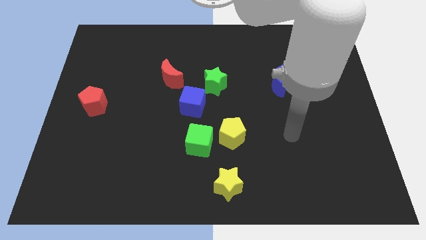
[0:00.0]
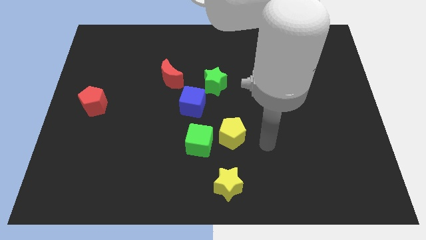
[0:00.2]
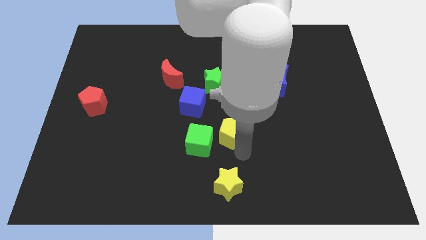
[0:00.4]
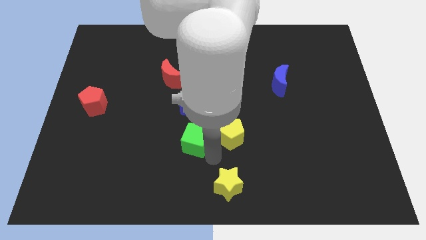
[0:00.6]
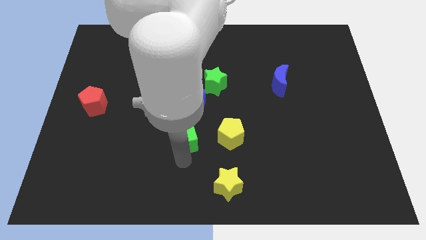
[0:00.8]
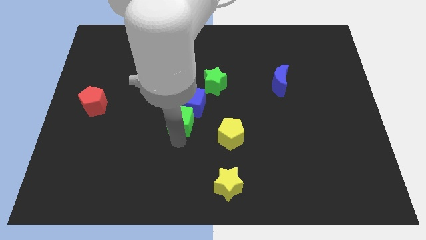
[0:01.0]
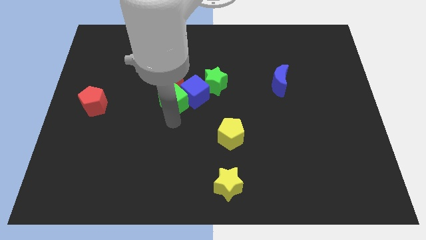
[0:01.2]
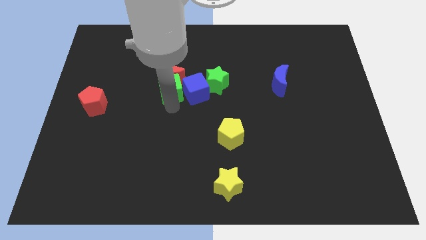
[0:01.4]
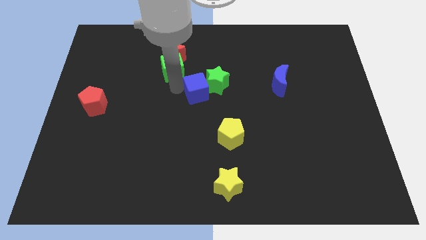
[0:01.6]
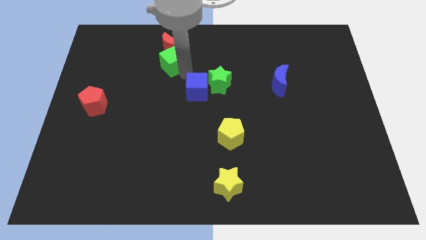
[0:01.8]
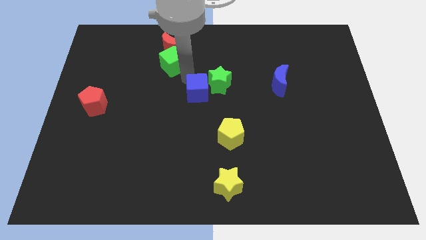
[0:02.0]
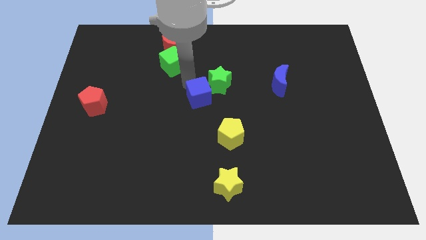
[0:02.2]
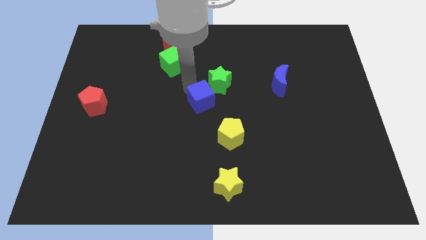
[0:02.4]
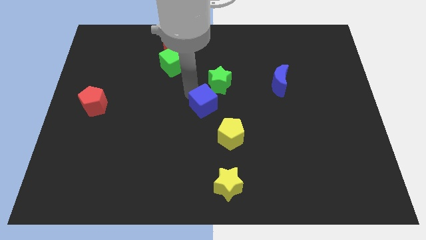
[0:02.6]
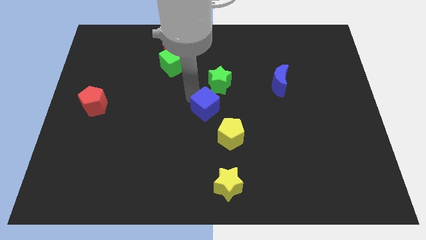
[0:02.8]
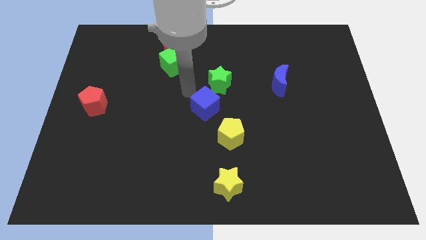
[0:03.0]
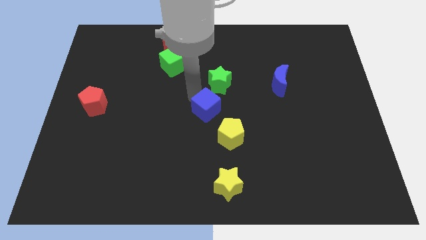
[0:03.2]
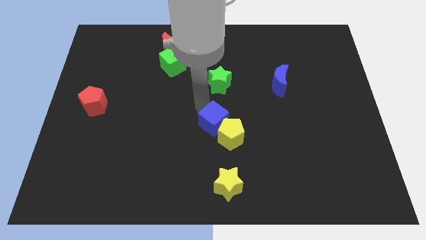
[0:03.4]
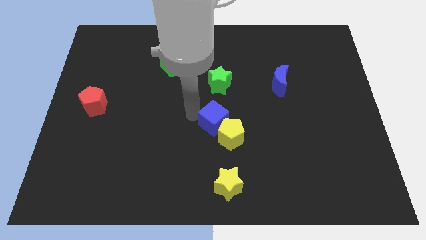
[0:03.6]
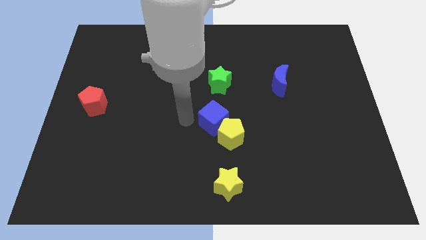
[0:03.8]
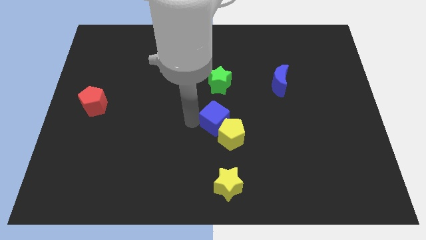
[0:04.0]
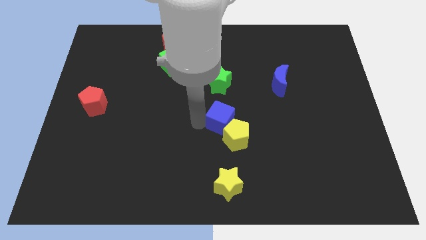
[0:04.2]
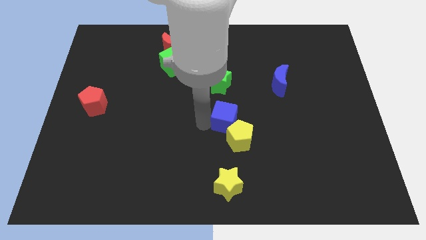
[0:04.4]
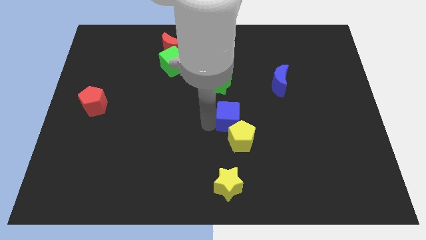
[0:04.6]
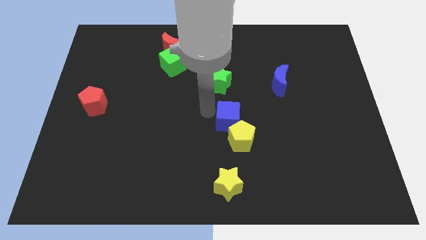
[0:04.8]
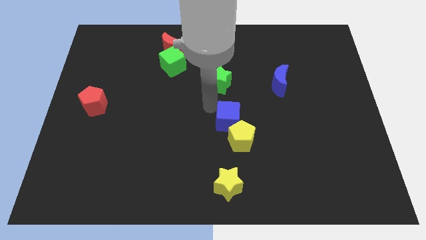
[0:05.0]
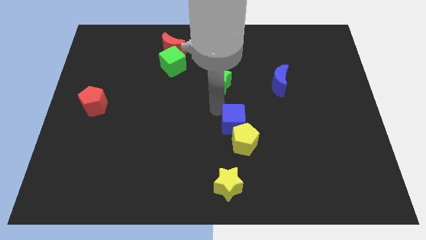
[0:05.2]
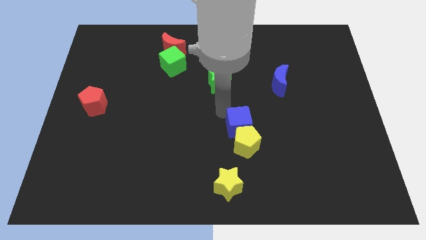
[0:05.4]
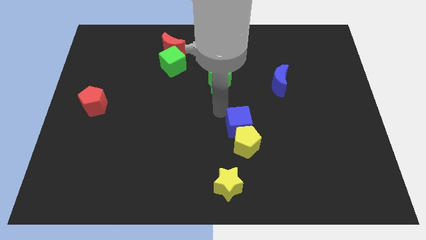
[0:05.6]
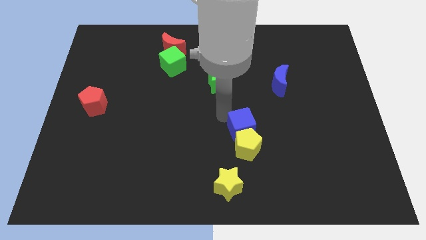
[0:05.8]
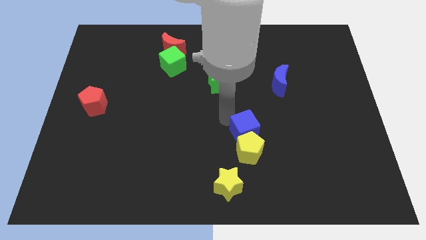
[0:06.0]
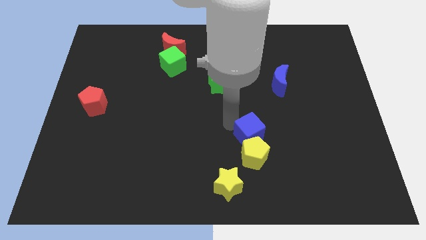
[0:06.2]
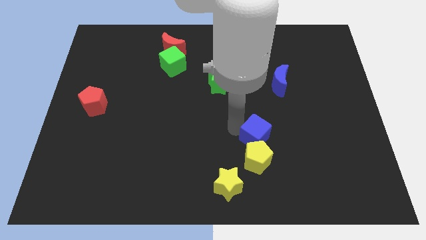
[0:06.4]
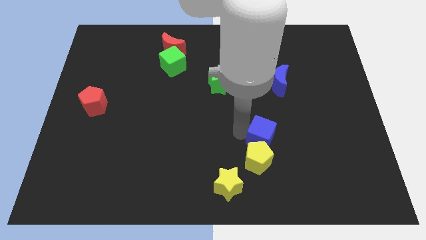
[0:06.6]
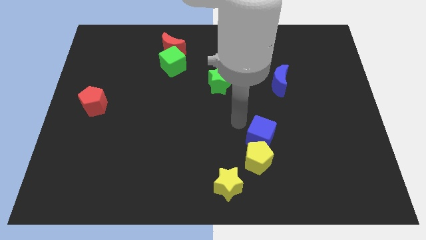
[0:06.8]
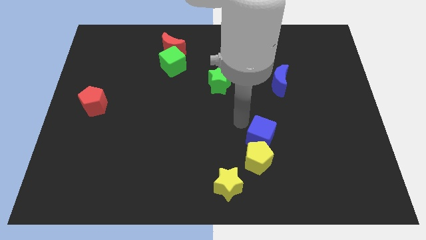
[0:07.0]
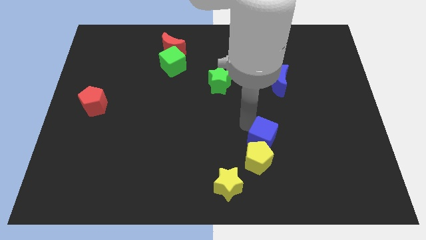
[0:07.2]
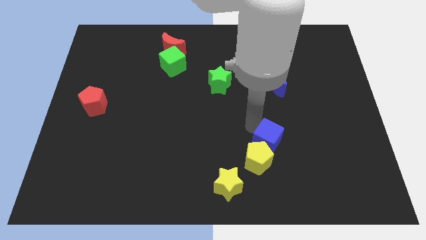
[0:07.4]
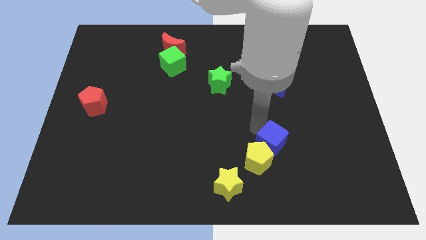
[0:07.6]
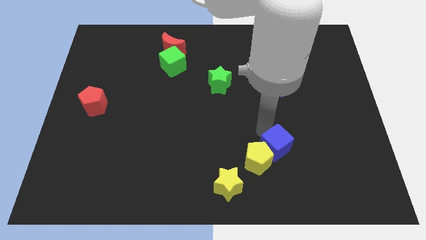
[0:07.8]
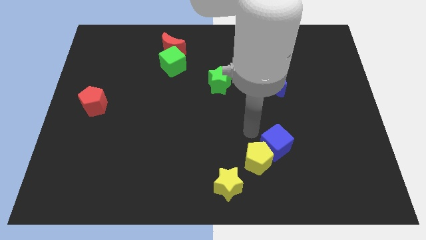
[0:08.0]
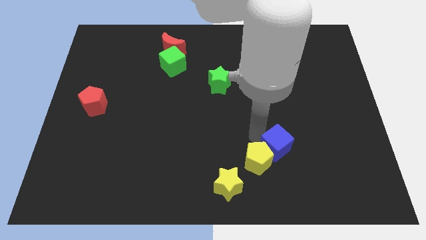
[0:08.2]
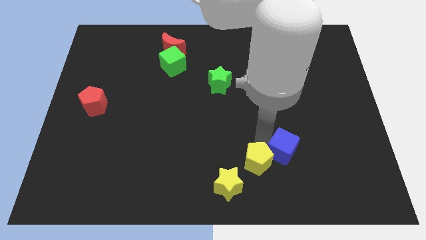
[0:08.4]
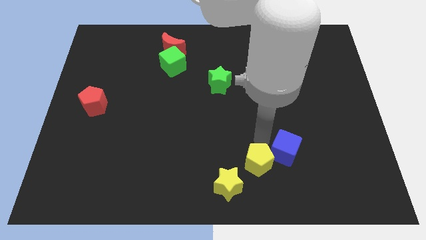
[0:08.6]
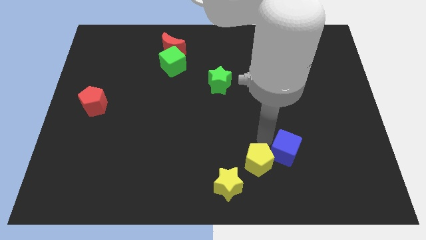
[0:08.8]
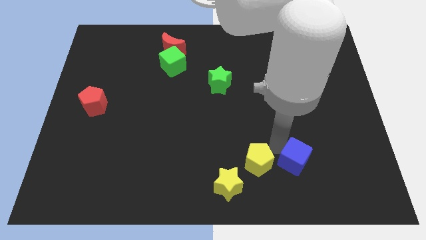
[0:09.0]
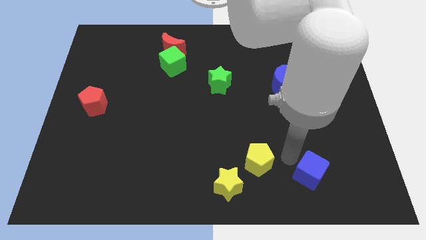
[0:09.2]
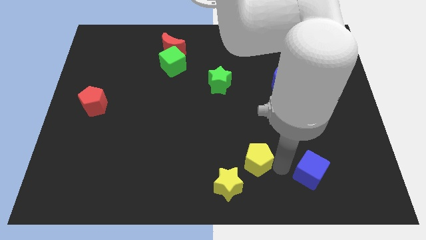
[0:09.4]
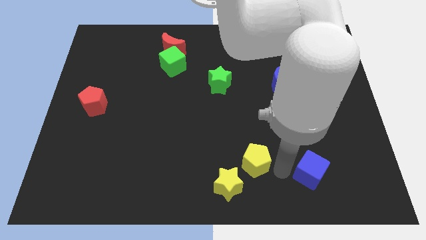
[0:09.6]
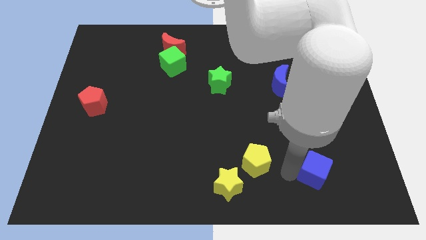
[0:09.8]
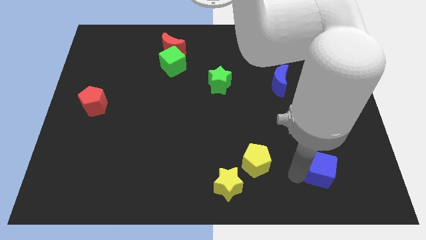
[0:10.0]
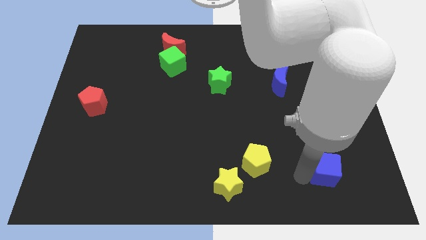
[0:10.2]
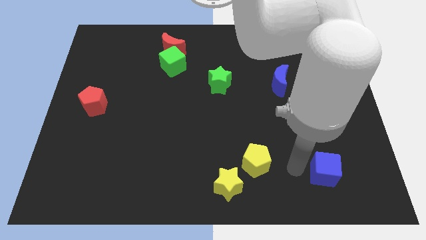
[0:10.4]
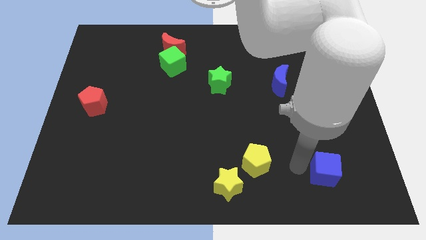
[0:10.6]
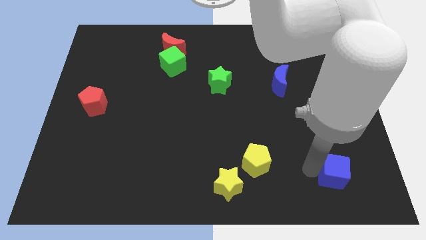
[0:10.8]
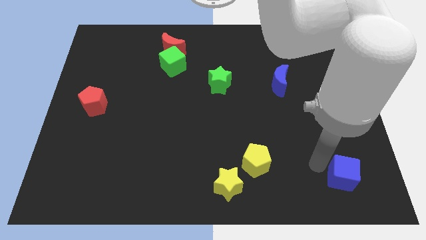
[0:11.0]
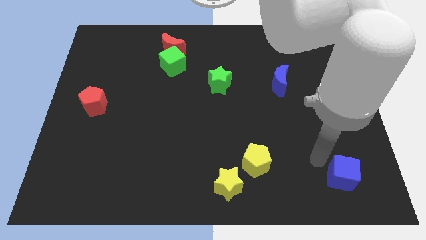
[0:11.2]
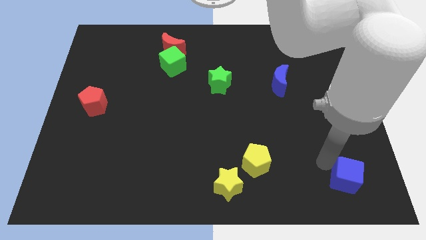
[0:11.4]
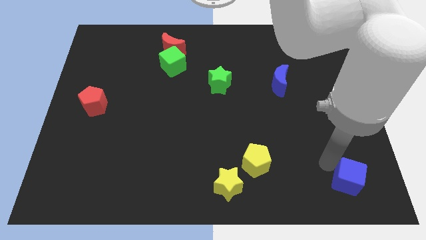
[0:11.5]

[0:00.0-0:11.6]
move the blue cube to the bottom right corner

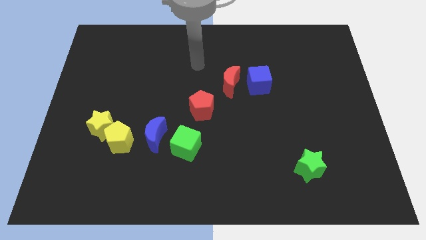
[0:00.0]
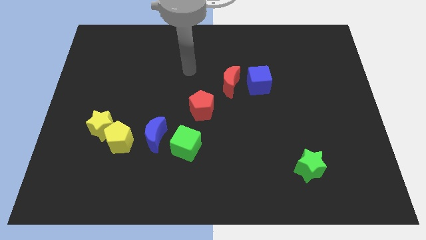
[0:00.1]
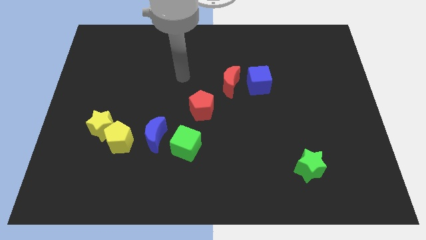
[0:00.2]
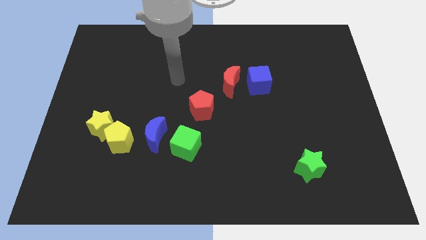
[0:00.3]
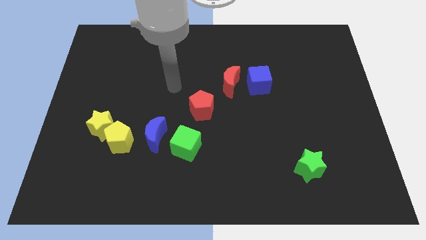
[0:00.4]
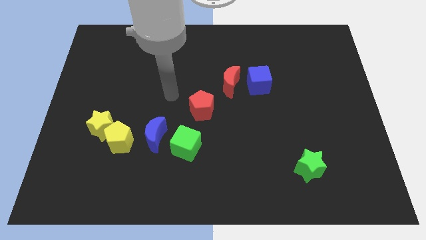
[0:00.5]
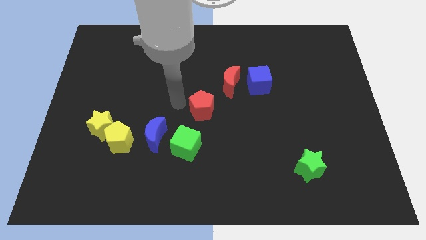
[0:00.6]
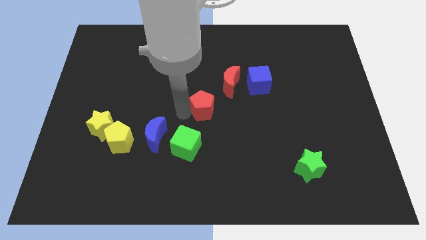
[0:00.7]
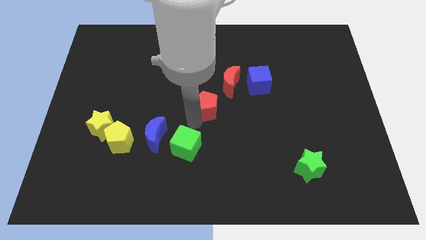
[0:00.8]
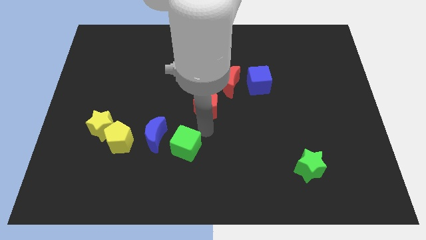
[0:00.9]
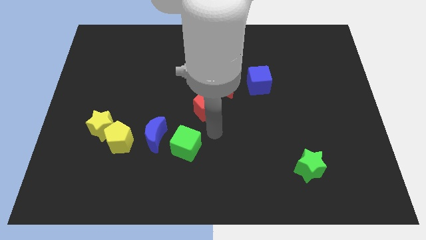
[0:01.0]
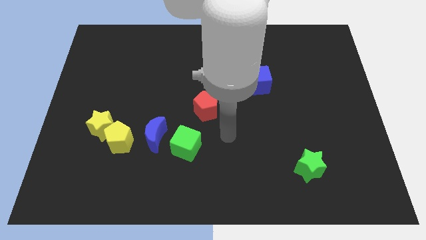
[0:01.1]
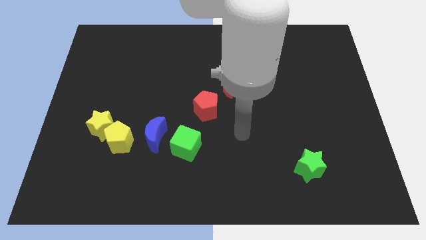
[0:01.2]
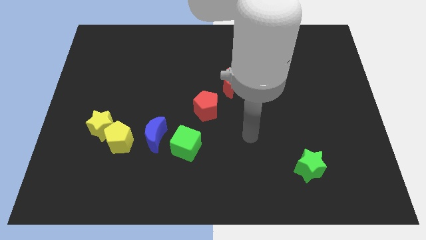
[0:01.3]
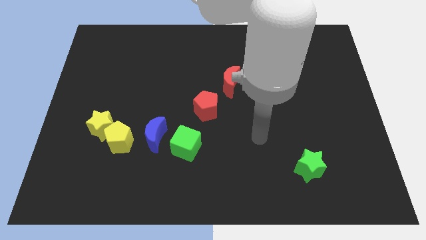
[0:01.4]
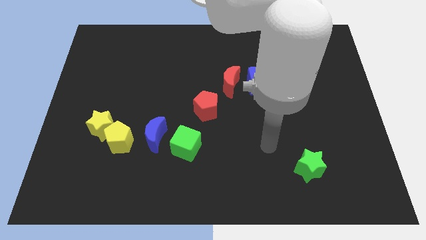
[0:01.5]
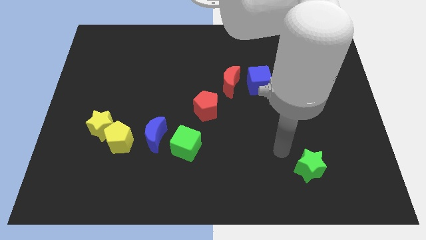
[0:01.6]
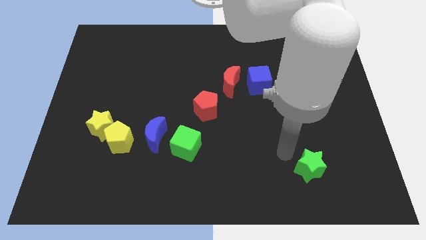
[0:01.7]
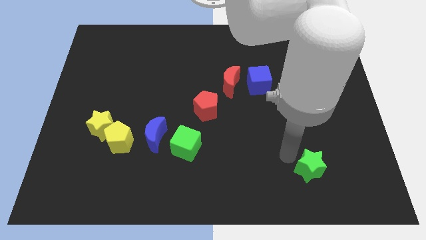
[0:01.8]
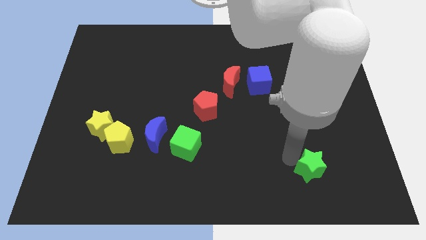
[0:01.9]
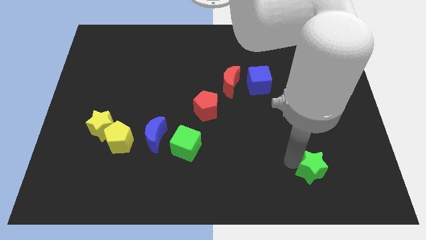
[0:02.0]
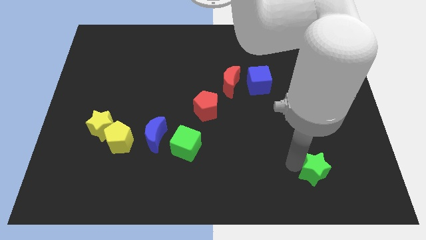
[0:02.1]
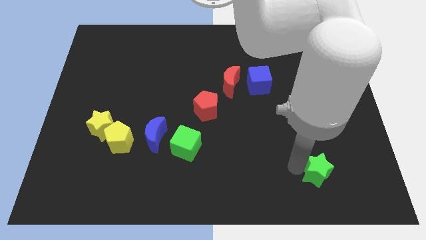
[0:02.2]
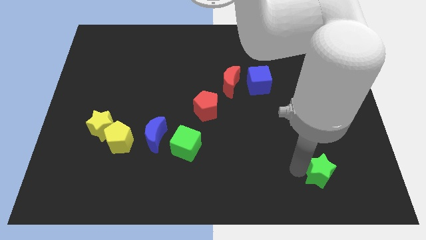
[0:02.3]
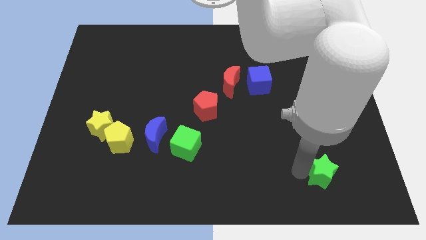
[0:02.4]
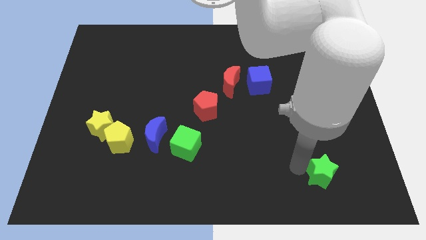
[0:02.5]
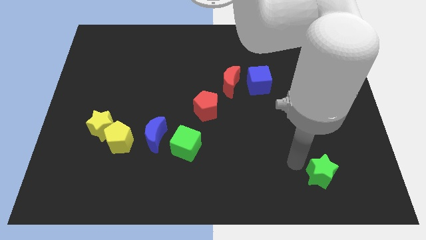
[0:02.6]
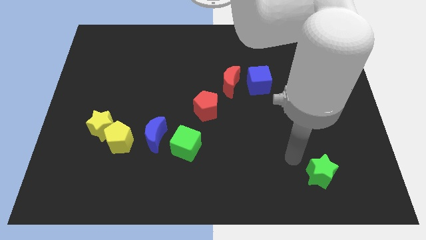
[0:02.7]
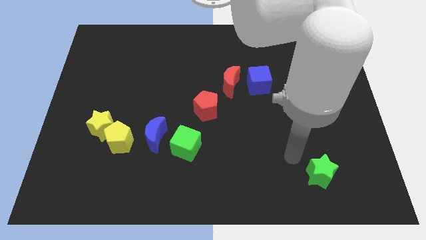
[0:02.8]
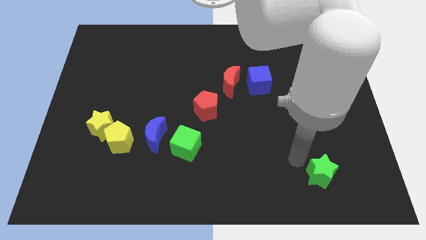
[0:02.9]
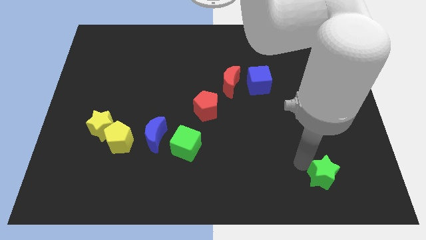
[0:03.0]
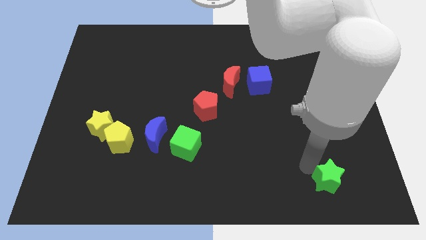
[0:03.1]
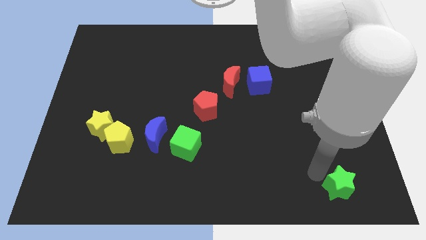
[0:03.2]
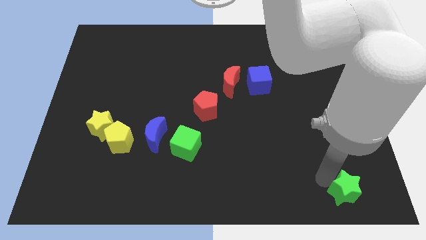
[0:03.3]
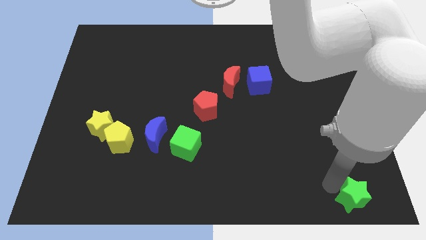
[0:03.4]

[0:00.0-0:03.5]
move the green star to the bottom right corner
